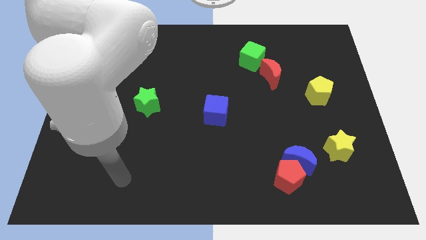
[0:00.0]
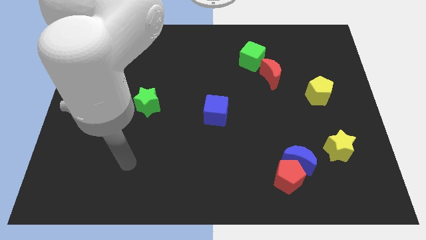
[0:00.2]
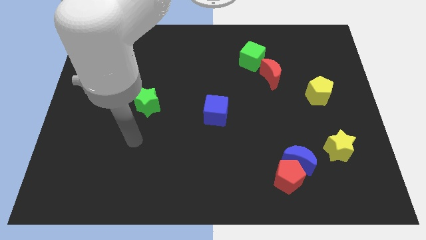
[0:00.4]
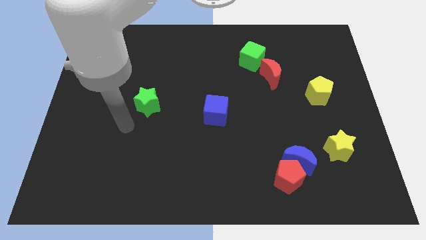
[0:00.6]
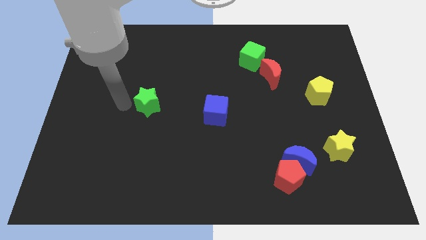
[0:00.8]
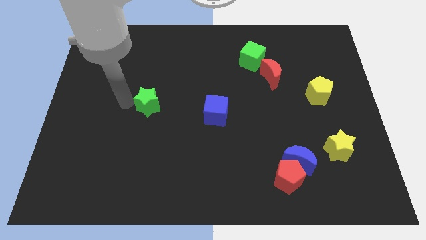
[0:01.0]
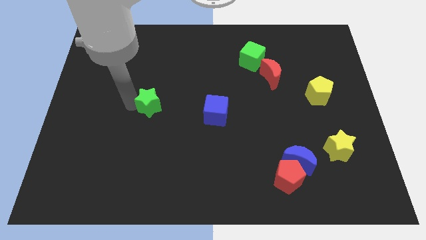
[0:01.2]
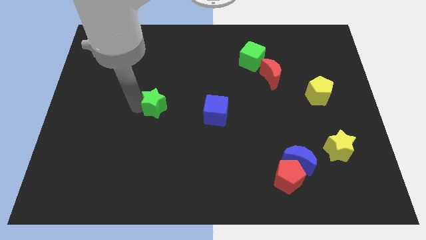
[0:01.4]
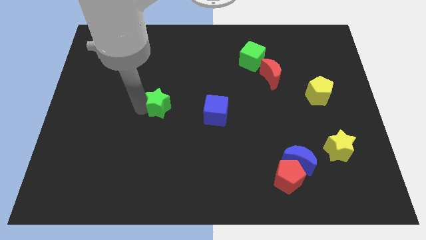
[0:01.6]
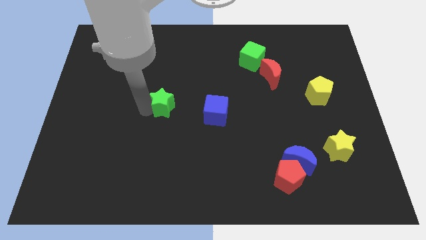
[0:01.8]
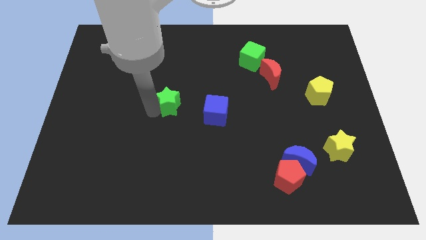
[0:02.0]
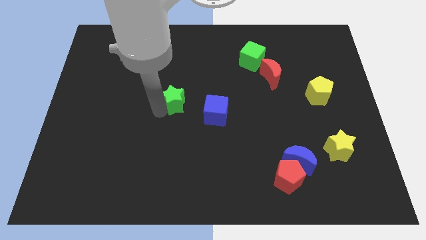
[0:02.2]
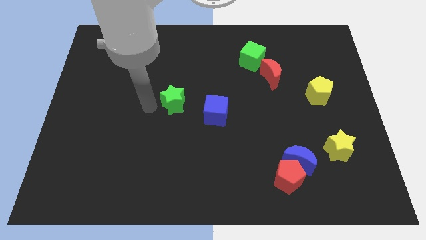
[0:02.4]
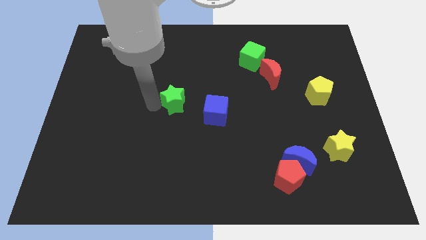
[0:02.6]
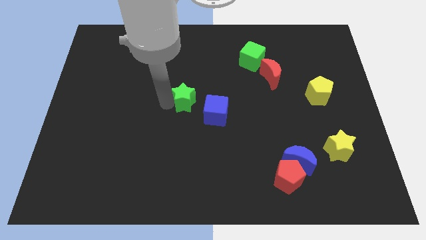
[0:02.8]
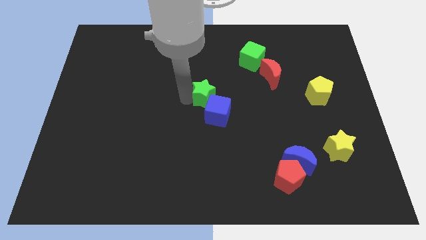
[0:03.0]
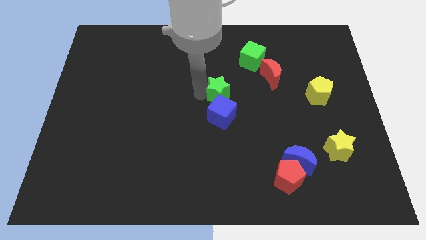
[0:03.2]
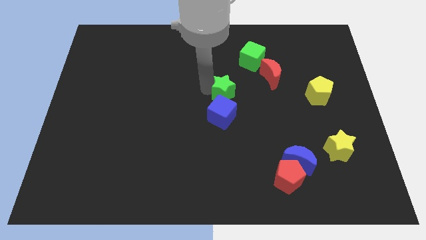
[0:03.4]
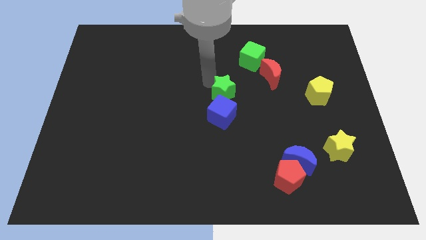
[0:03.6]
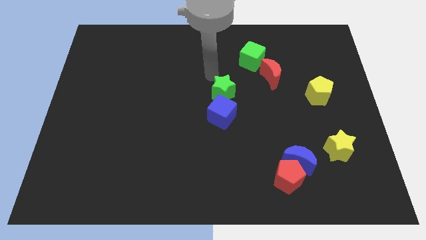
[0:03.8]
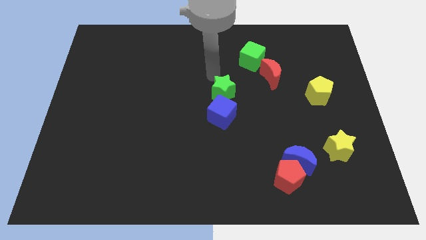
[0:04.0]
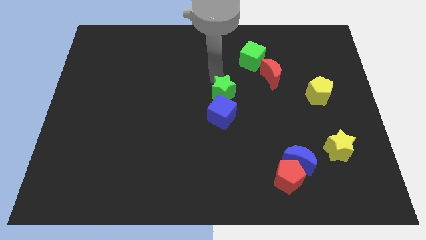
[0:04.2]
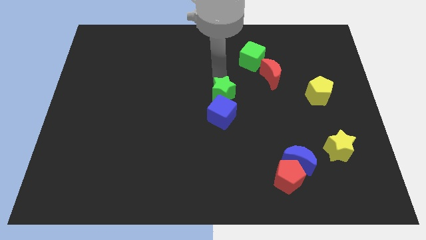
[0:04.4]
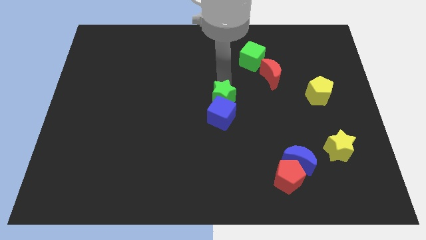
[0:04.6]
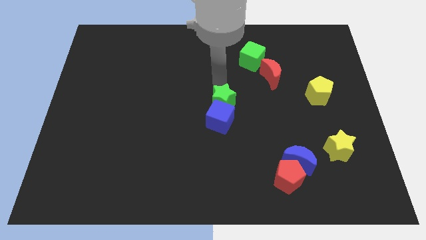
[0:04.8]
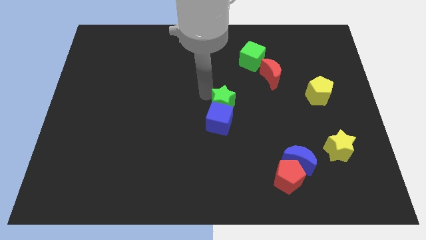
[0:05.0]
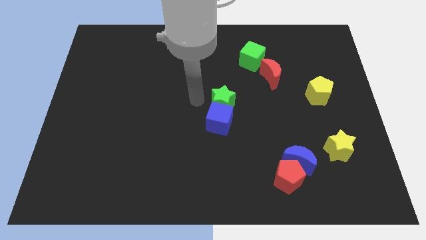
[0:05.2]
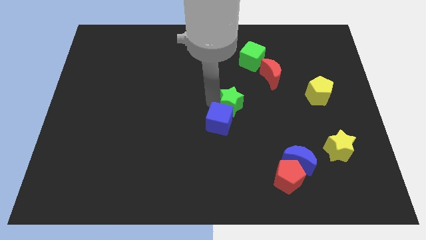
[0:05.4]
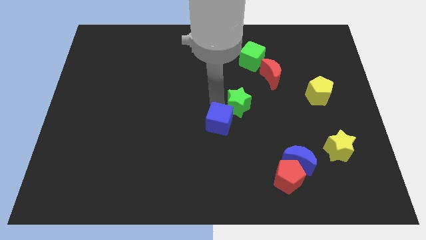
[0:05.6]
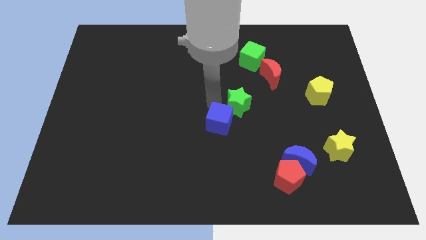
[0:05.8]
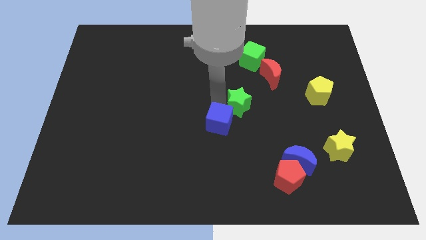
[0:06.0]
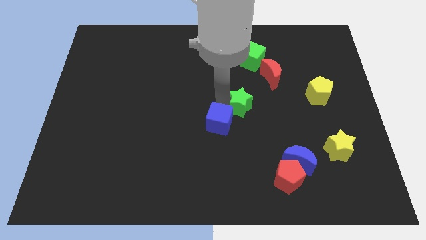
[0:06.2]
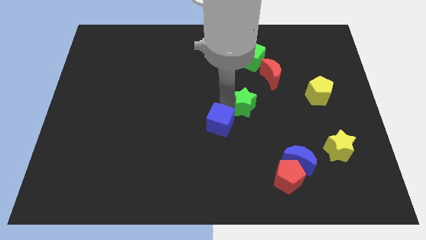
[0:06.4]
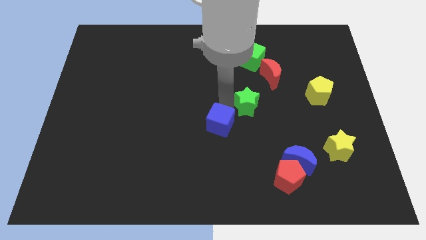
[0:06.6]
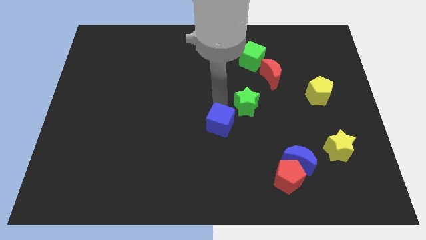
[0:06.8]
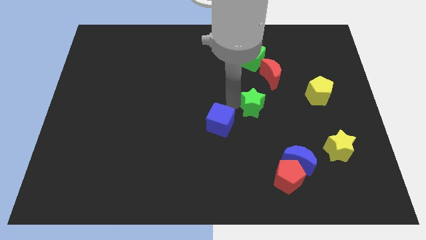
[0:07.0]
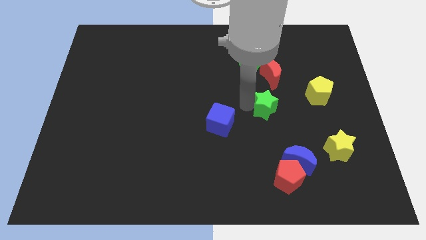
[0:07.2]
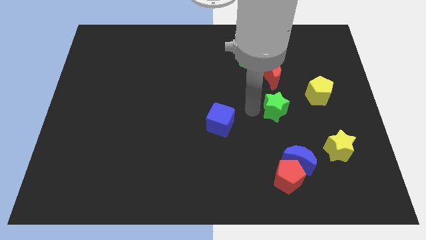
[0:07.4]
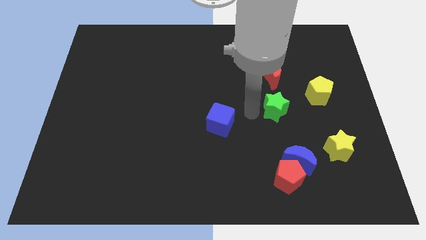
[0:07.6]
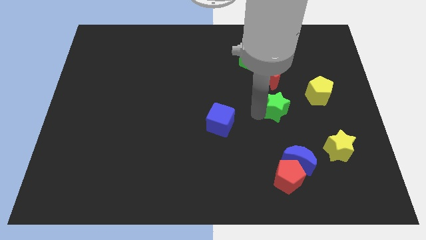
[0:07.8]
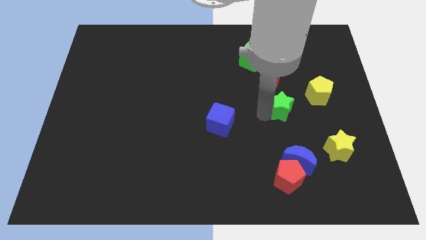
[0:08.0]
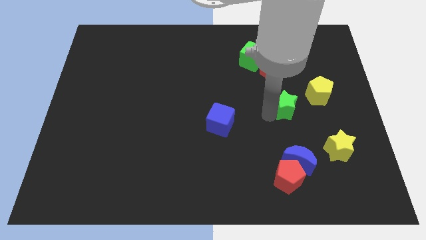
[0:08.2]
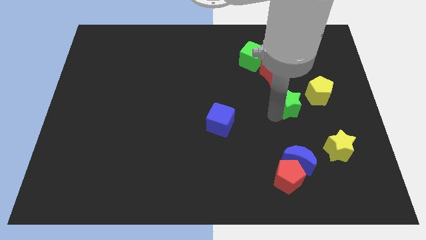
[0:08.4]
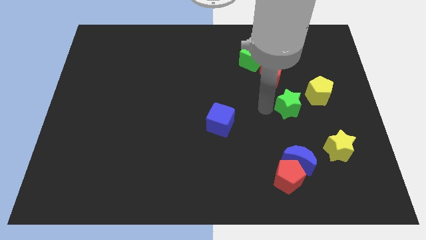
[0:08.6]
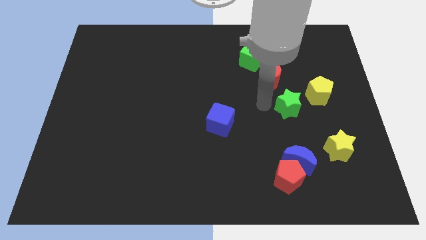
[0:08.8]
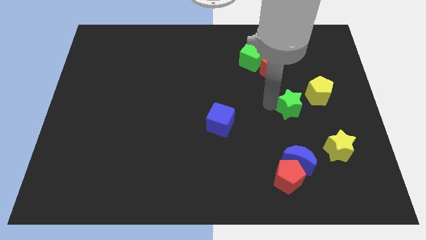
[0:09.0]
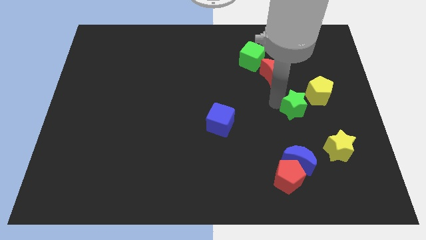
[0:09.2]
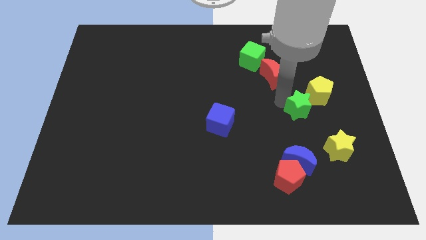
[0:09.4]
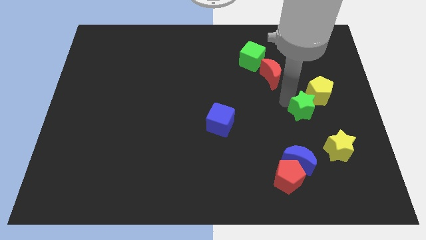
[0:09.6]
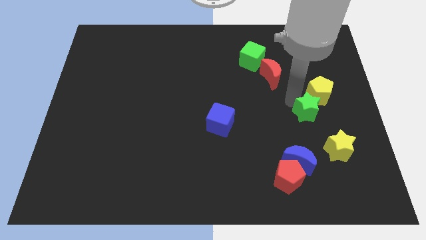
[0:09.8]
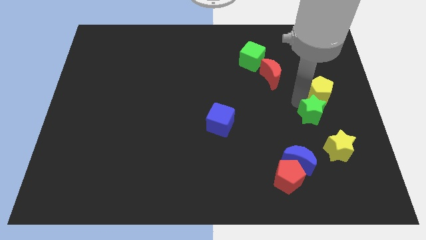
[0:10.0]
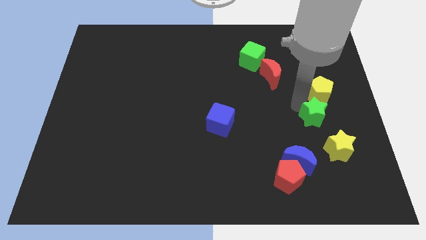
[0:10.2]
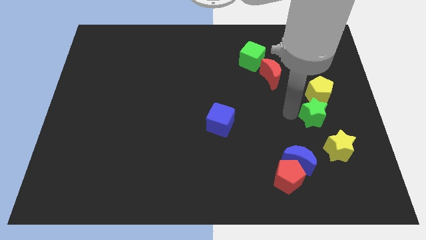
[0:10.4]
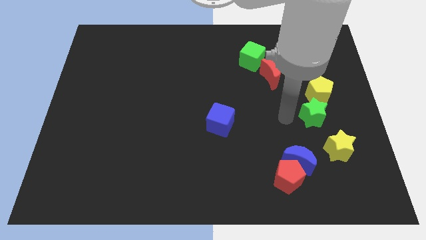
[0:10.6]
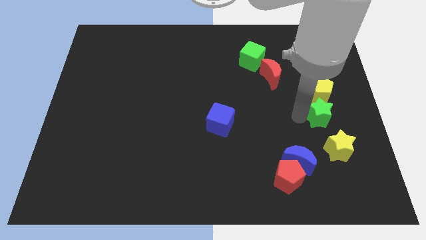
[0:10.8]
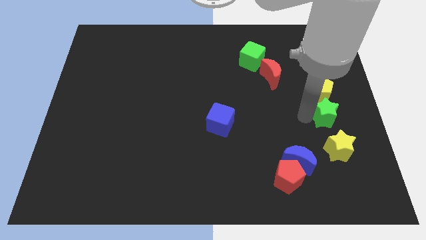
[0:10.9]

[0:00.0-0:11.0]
put the green star to the right side

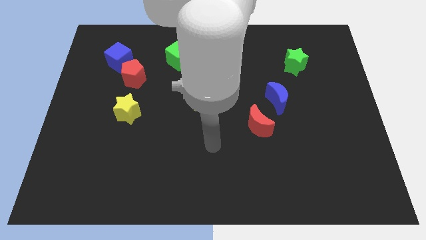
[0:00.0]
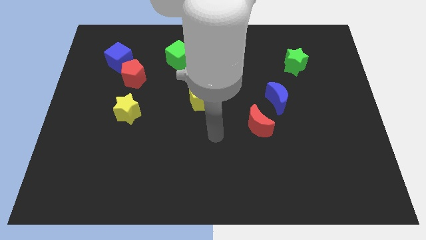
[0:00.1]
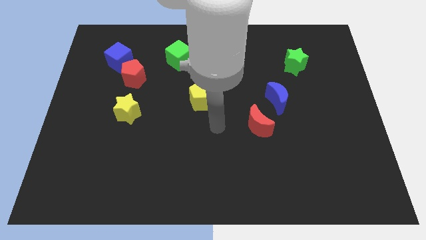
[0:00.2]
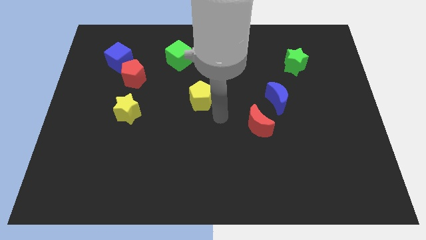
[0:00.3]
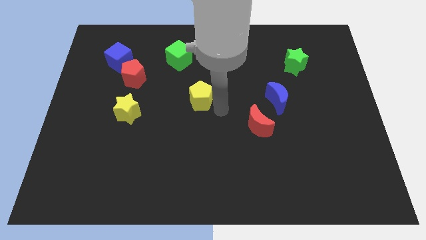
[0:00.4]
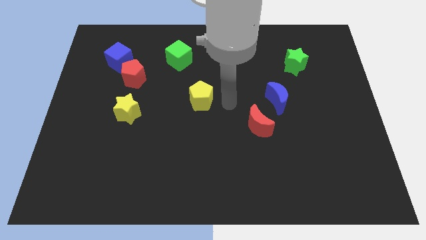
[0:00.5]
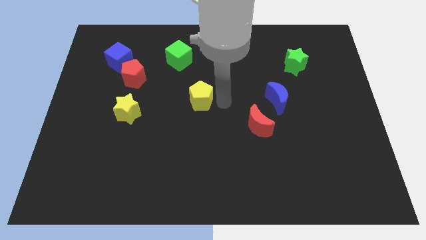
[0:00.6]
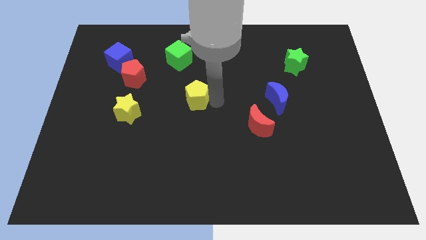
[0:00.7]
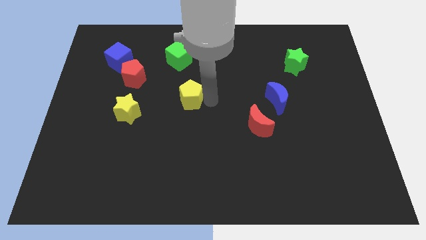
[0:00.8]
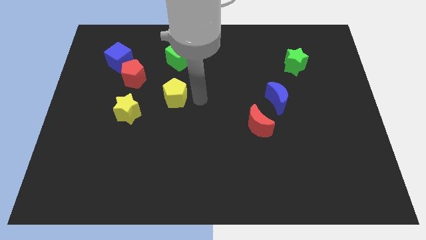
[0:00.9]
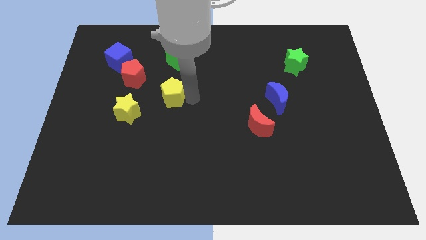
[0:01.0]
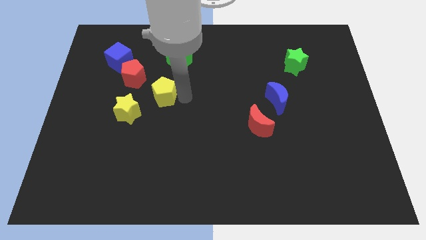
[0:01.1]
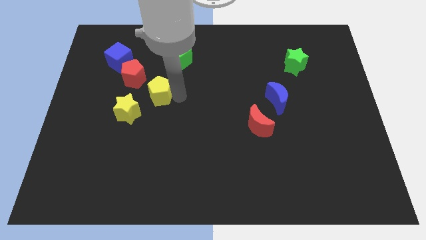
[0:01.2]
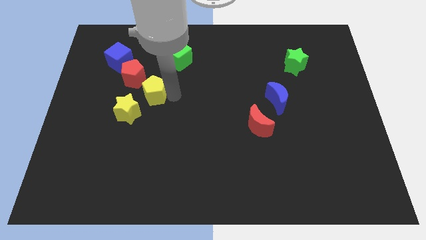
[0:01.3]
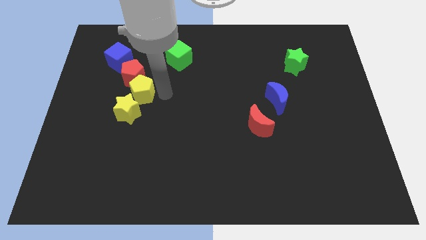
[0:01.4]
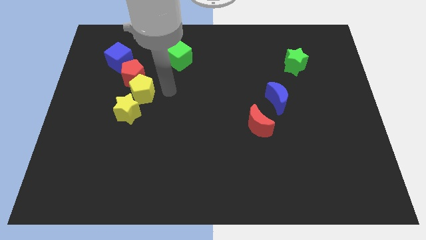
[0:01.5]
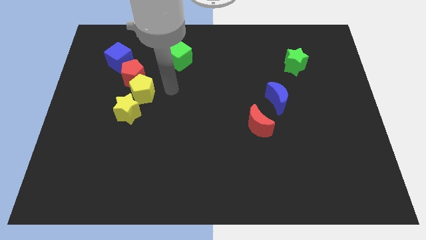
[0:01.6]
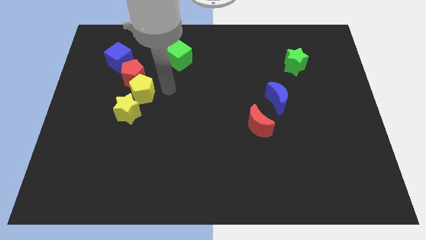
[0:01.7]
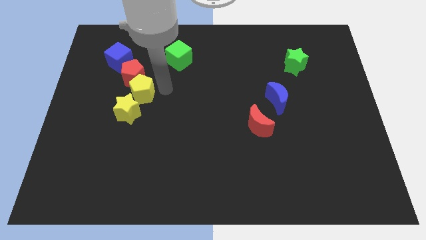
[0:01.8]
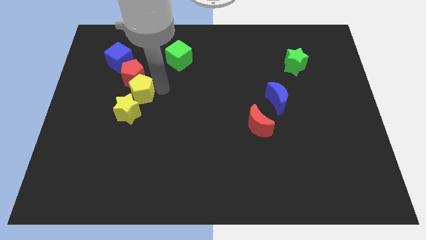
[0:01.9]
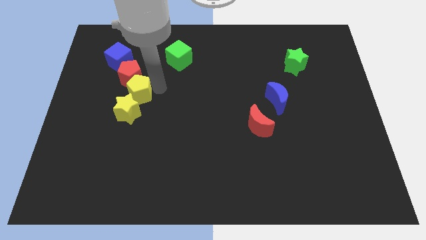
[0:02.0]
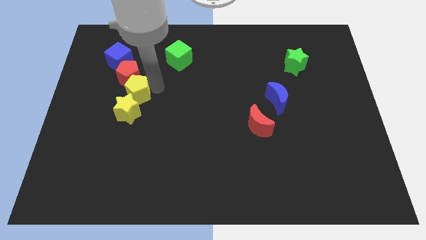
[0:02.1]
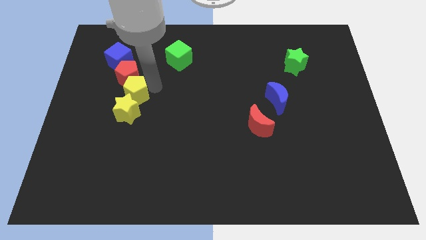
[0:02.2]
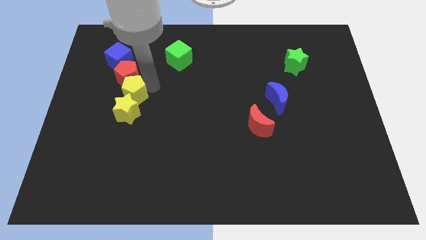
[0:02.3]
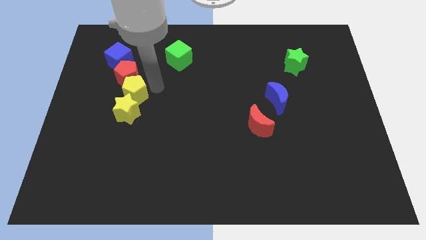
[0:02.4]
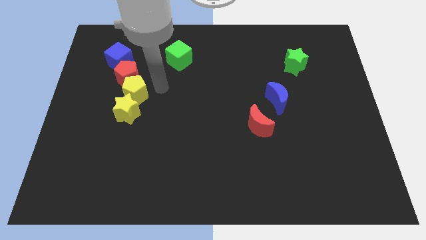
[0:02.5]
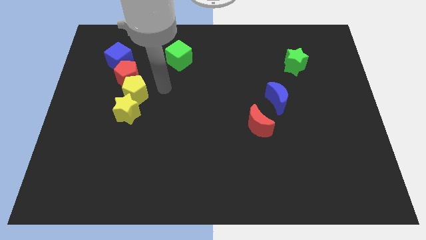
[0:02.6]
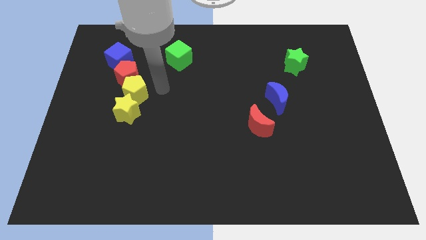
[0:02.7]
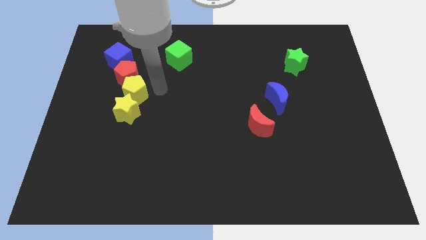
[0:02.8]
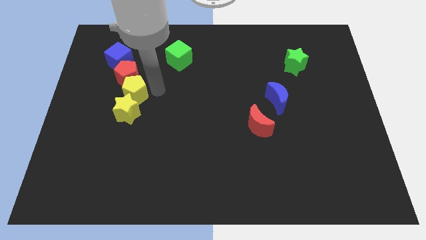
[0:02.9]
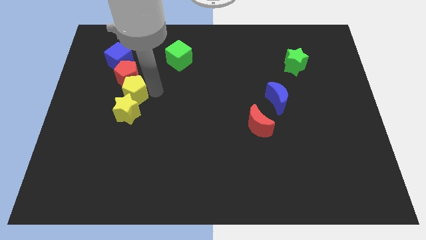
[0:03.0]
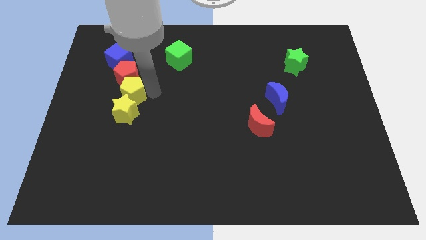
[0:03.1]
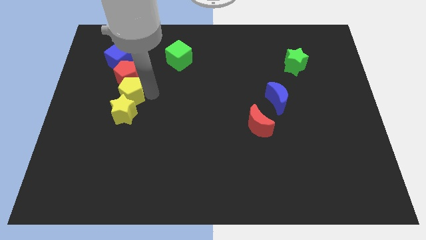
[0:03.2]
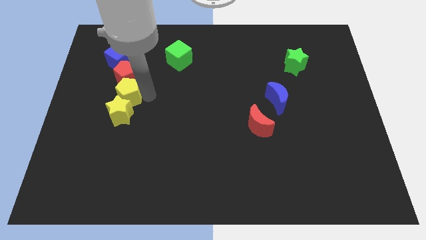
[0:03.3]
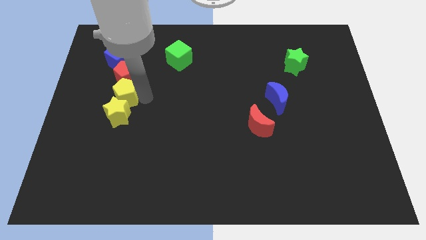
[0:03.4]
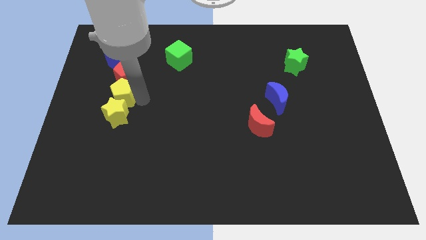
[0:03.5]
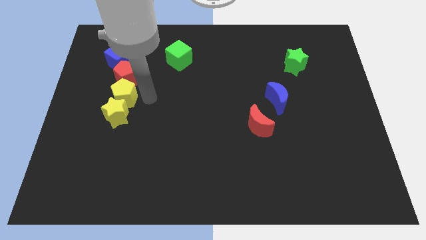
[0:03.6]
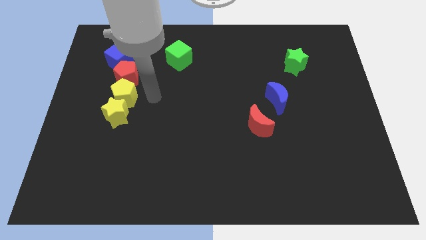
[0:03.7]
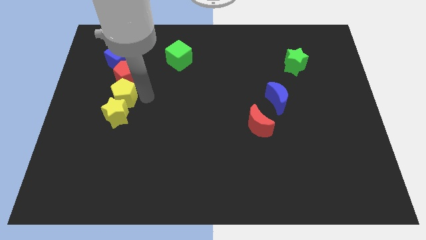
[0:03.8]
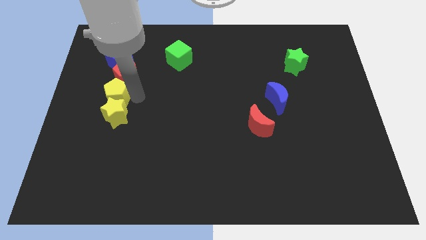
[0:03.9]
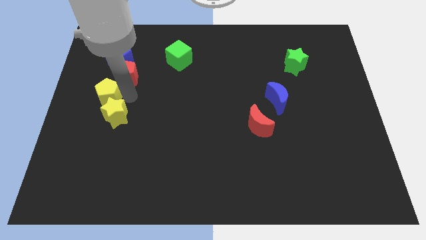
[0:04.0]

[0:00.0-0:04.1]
slide the yellow pentagon to the center left
